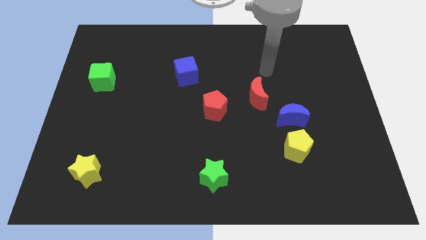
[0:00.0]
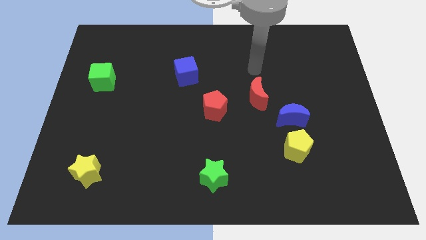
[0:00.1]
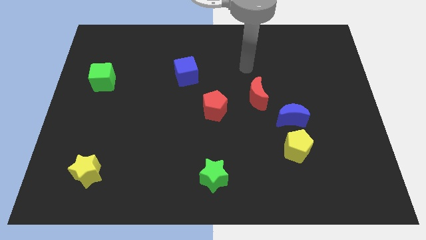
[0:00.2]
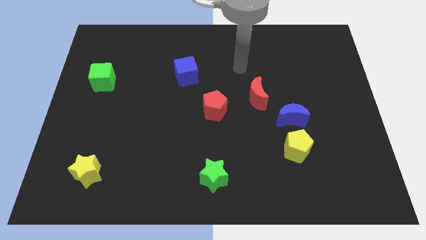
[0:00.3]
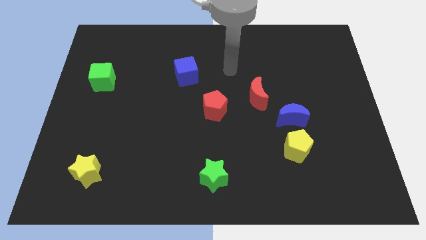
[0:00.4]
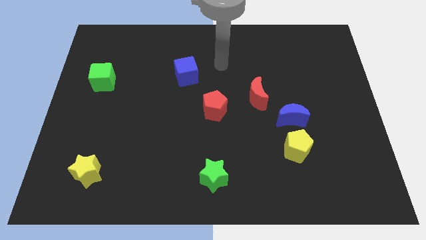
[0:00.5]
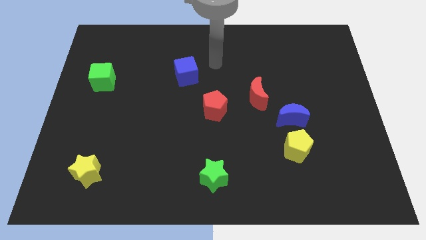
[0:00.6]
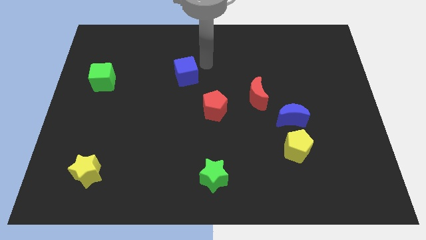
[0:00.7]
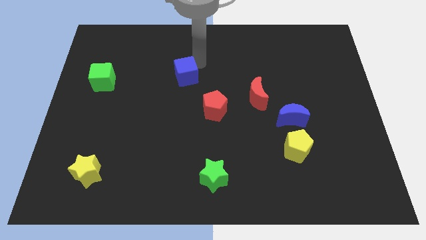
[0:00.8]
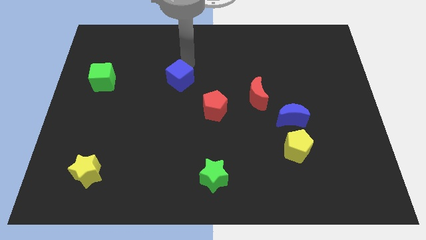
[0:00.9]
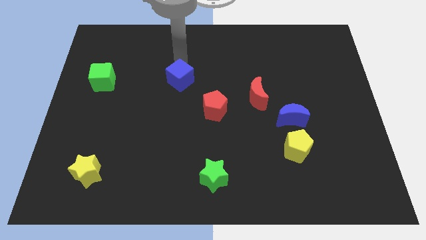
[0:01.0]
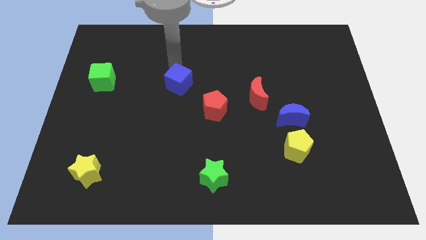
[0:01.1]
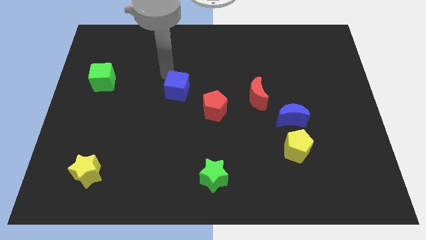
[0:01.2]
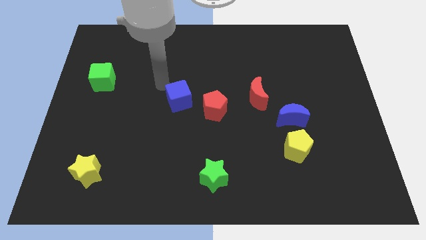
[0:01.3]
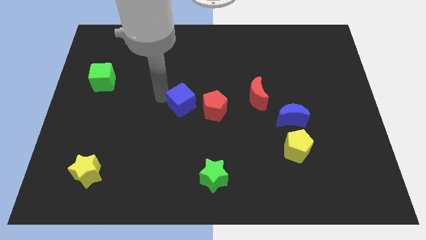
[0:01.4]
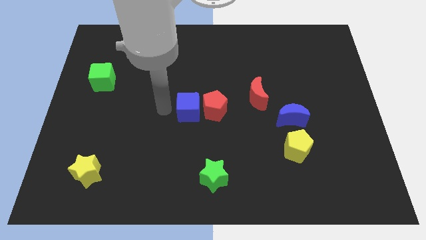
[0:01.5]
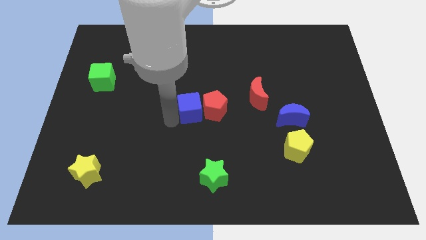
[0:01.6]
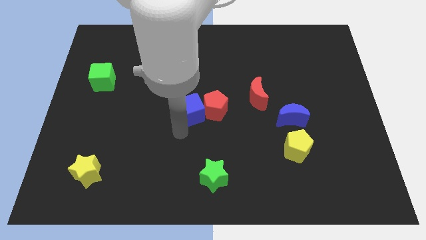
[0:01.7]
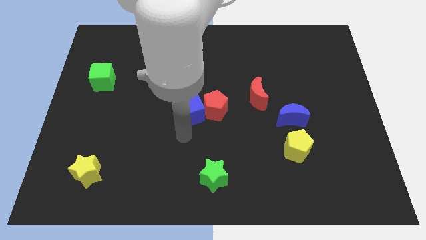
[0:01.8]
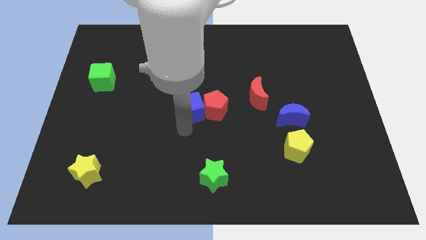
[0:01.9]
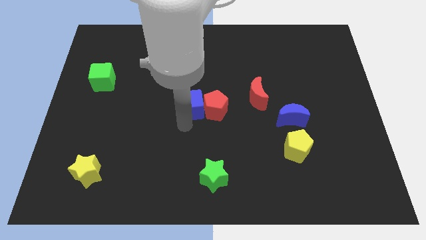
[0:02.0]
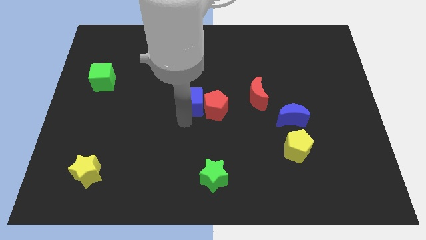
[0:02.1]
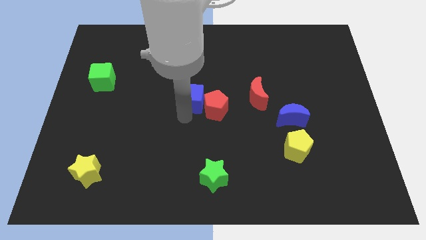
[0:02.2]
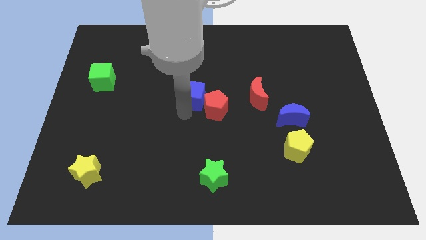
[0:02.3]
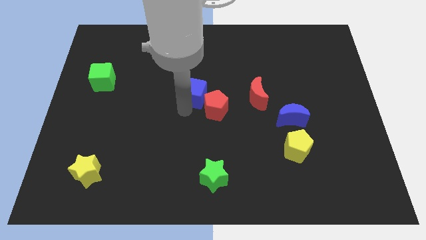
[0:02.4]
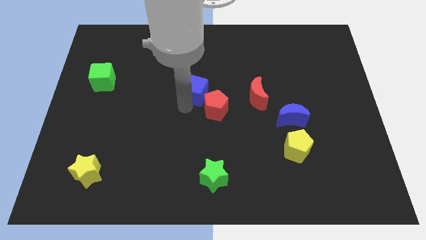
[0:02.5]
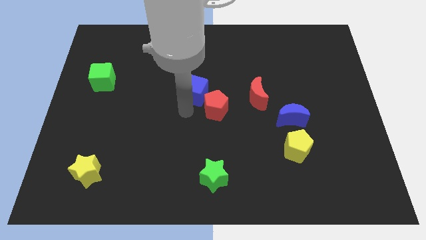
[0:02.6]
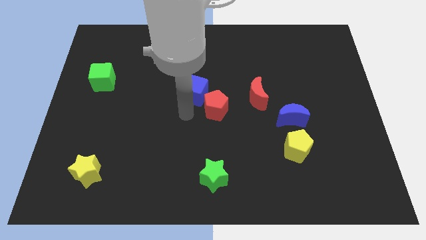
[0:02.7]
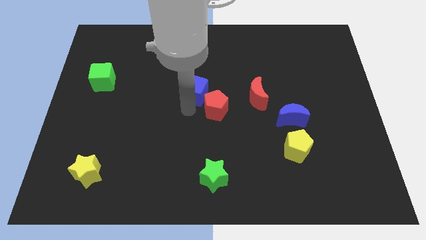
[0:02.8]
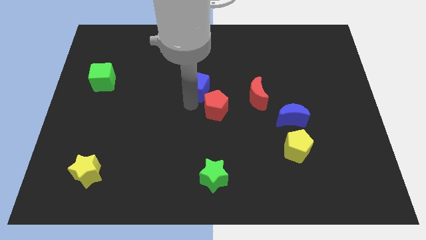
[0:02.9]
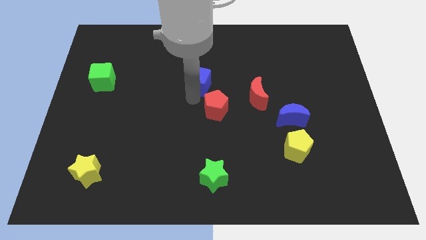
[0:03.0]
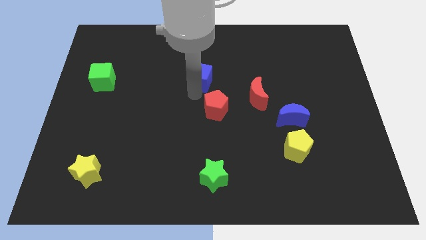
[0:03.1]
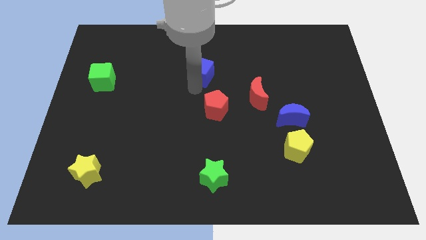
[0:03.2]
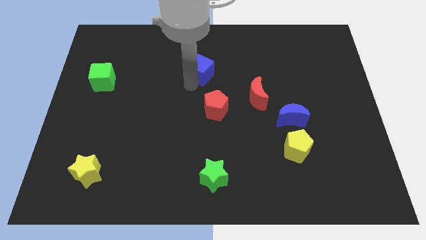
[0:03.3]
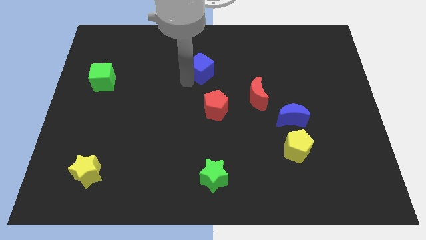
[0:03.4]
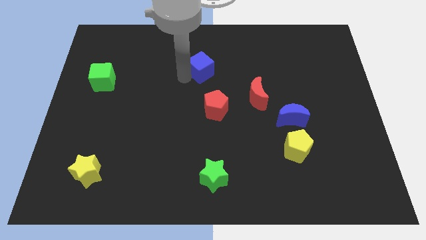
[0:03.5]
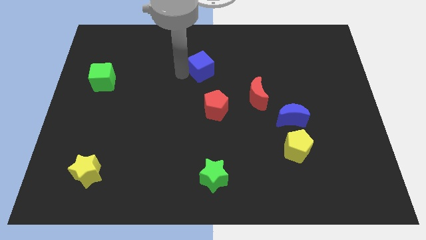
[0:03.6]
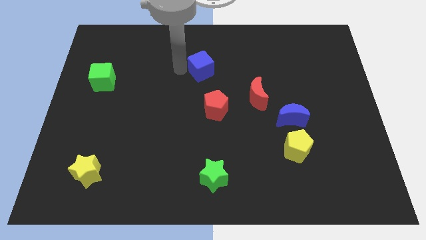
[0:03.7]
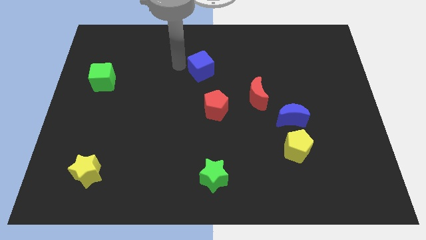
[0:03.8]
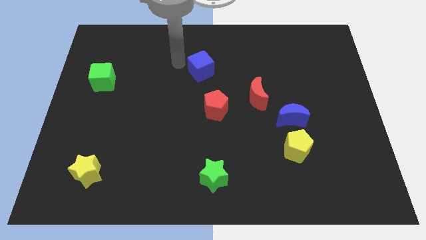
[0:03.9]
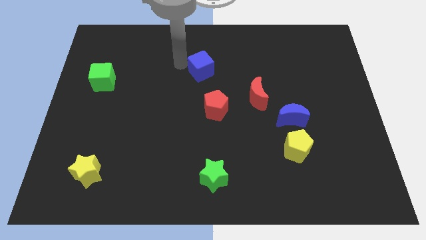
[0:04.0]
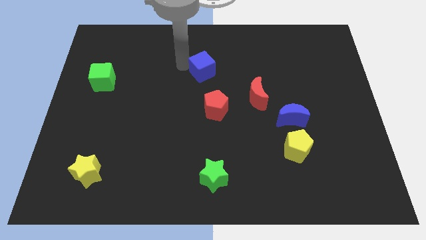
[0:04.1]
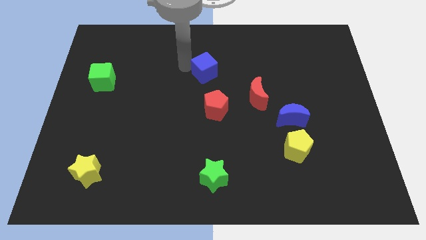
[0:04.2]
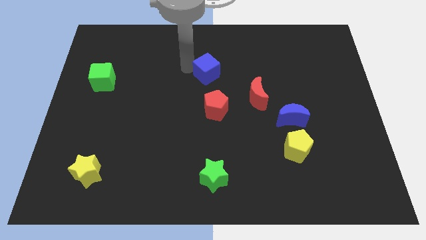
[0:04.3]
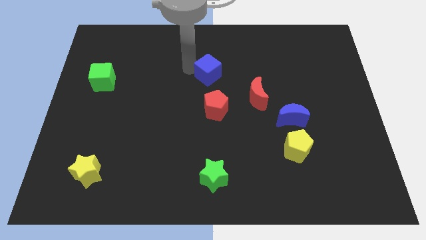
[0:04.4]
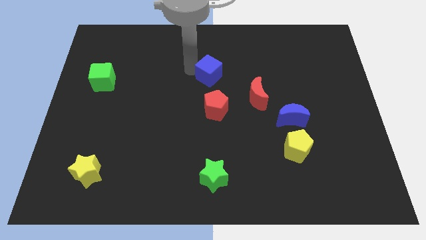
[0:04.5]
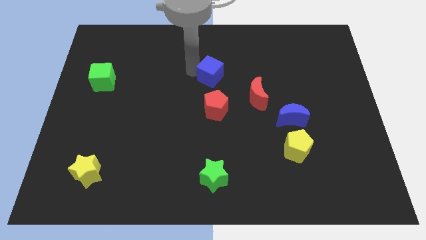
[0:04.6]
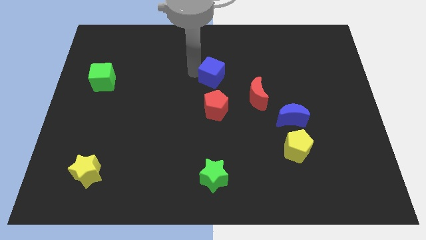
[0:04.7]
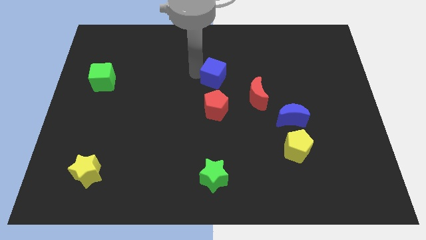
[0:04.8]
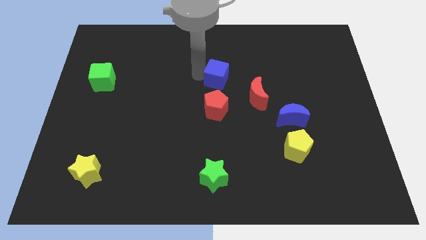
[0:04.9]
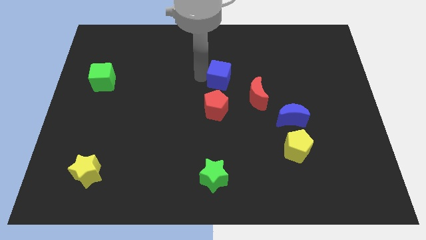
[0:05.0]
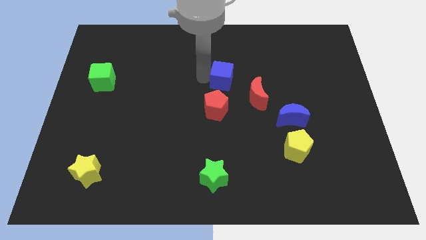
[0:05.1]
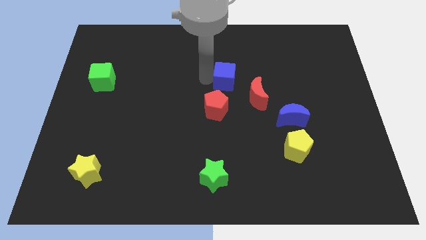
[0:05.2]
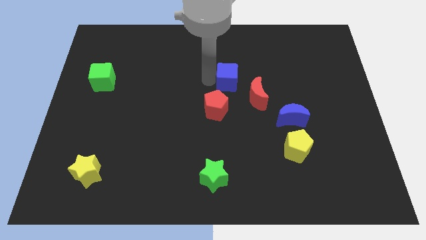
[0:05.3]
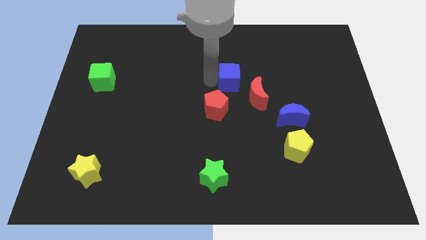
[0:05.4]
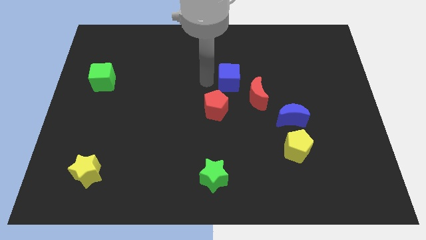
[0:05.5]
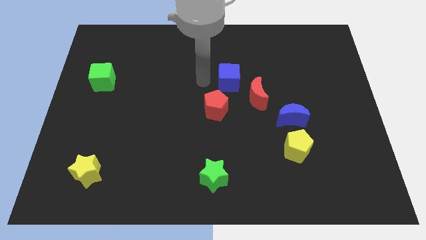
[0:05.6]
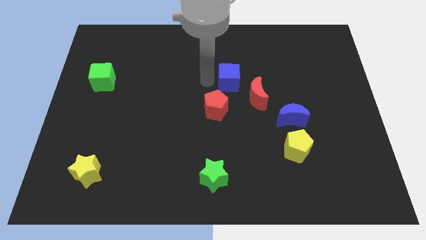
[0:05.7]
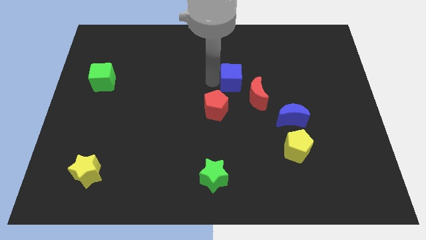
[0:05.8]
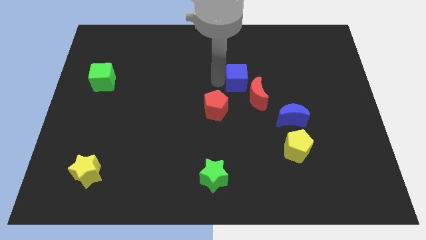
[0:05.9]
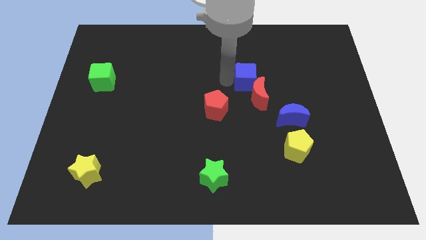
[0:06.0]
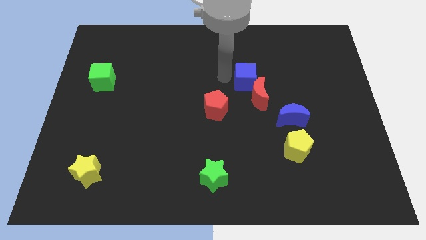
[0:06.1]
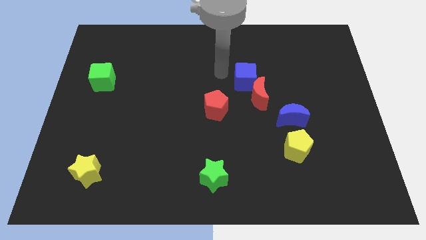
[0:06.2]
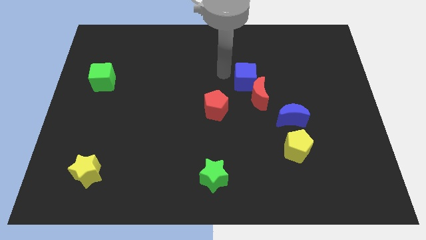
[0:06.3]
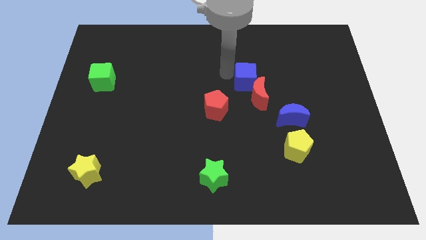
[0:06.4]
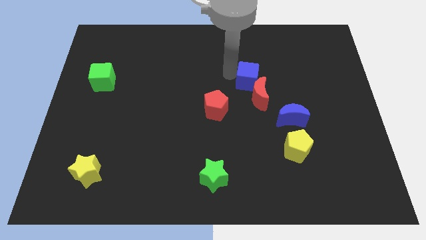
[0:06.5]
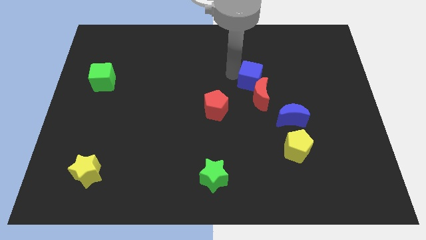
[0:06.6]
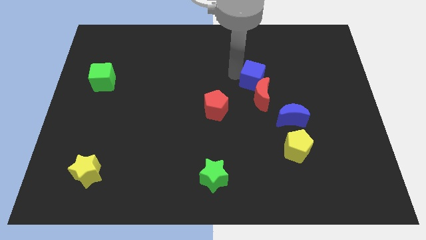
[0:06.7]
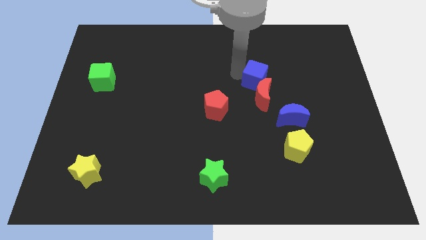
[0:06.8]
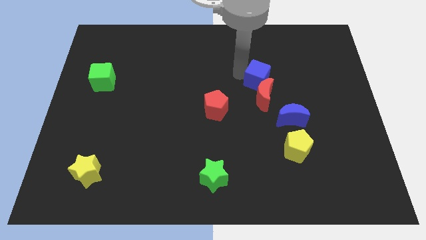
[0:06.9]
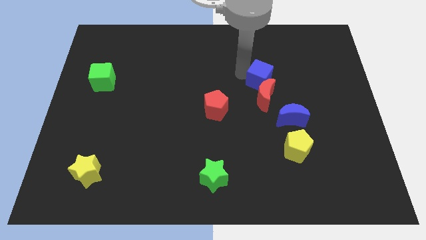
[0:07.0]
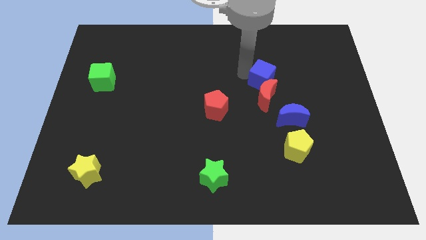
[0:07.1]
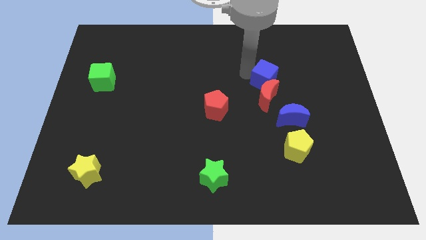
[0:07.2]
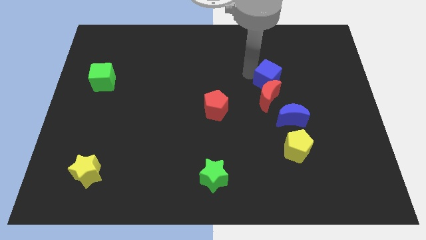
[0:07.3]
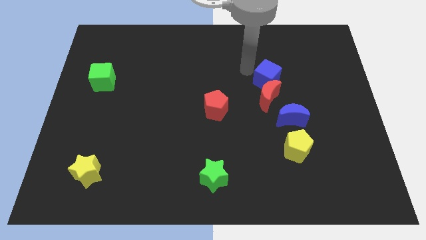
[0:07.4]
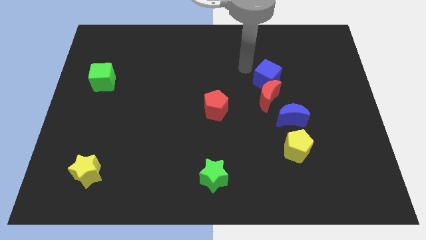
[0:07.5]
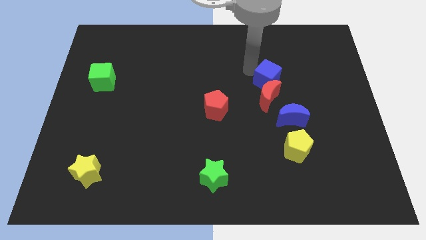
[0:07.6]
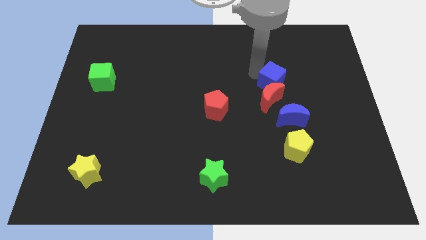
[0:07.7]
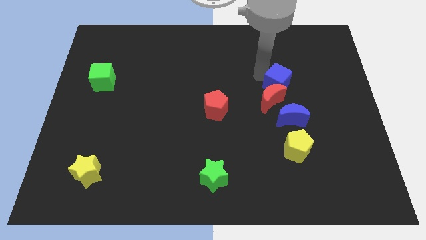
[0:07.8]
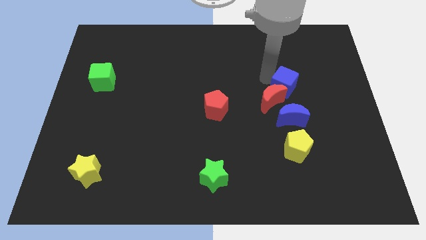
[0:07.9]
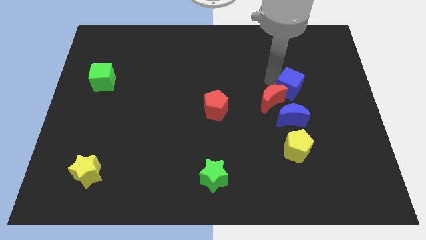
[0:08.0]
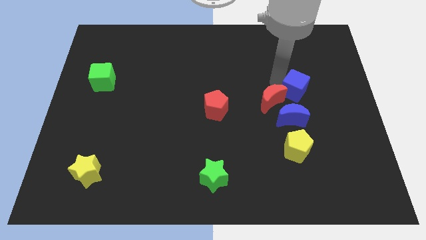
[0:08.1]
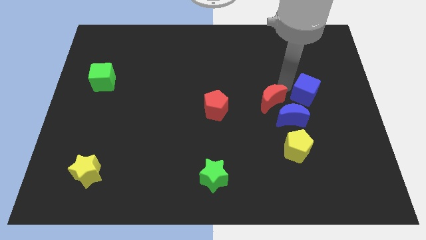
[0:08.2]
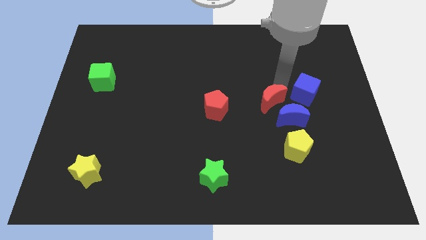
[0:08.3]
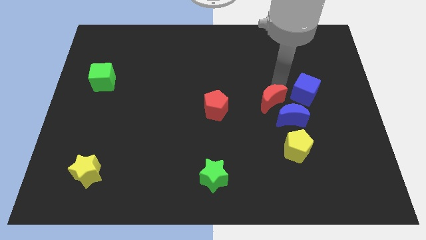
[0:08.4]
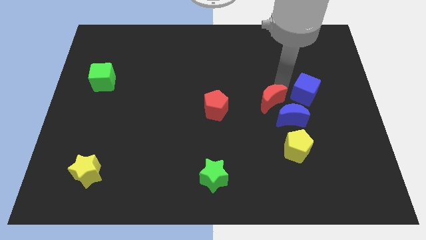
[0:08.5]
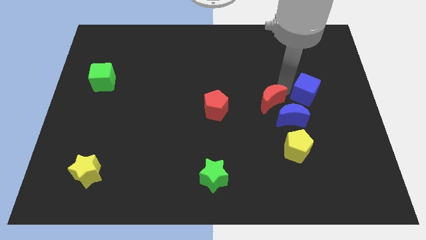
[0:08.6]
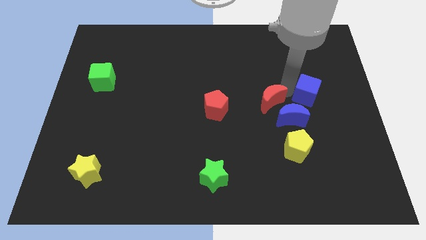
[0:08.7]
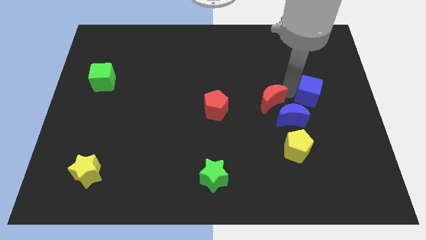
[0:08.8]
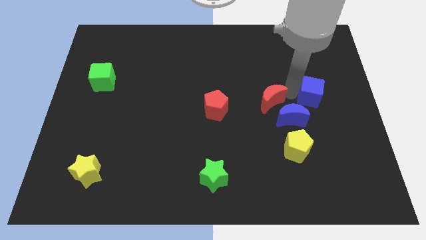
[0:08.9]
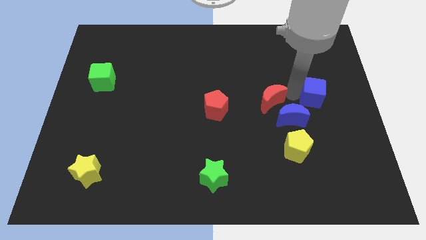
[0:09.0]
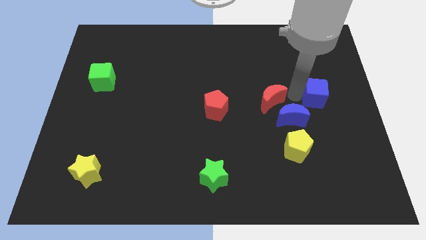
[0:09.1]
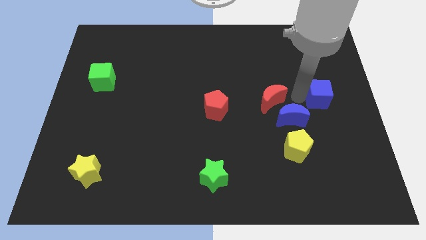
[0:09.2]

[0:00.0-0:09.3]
push the blue cube to the right side
